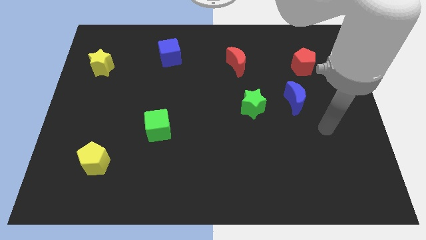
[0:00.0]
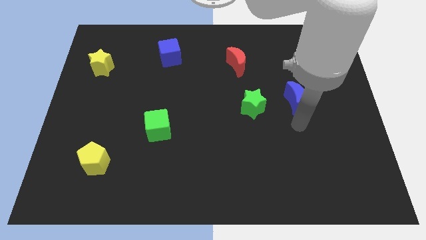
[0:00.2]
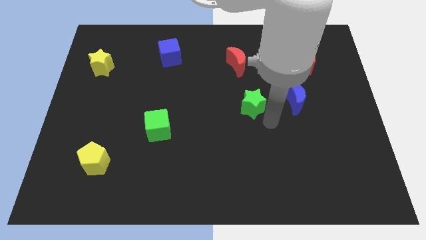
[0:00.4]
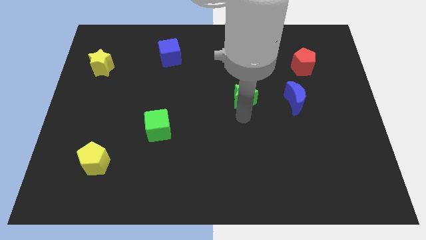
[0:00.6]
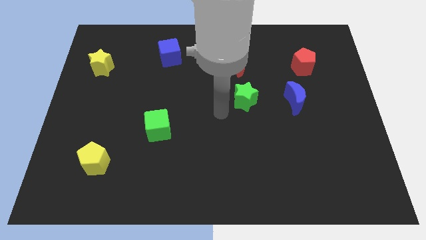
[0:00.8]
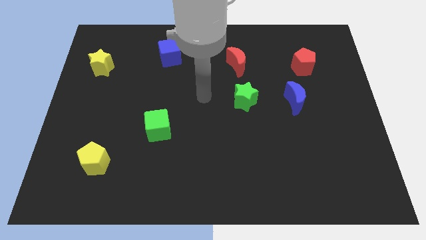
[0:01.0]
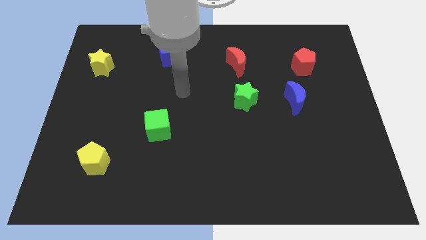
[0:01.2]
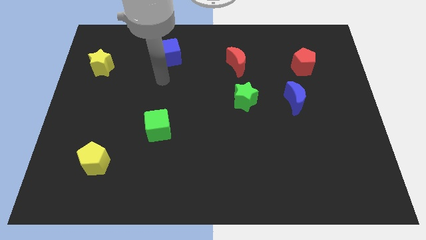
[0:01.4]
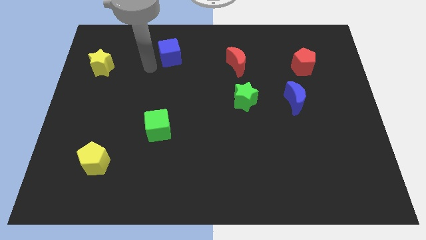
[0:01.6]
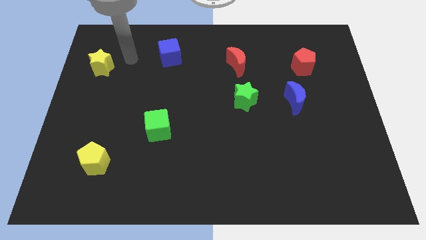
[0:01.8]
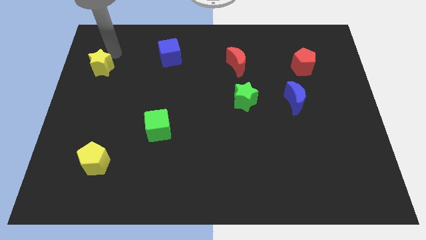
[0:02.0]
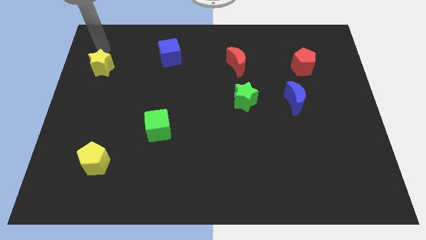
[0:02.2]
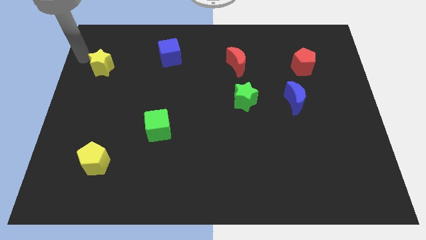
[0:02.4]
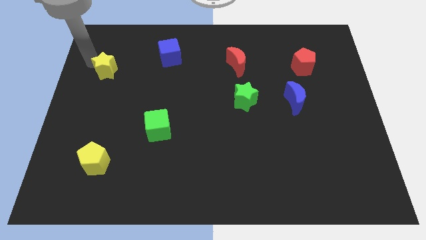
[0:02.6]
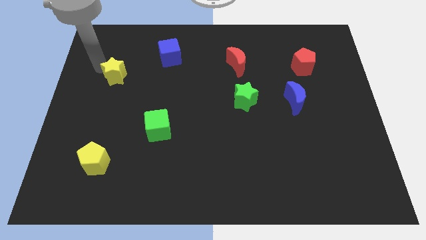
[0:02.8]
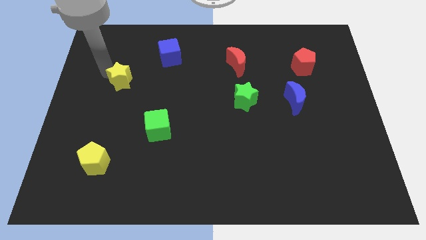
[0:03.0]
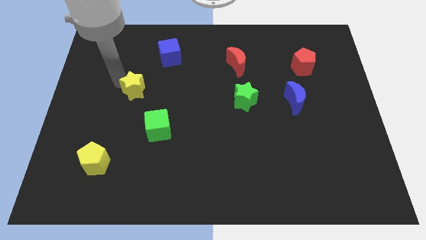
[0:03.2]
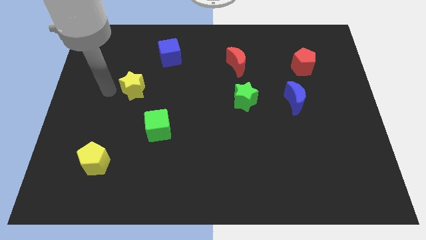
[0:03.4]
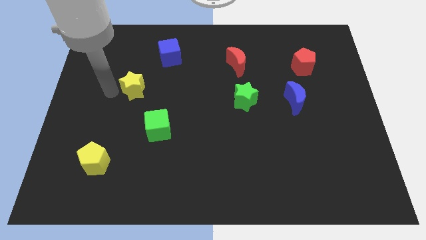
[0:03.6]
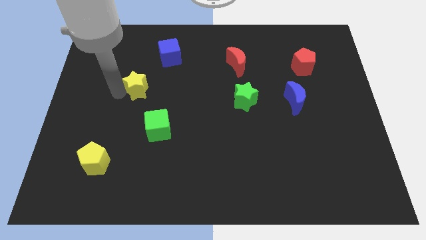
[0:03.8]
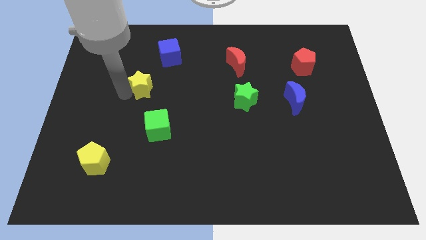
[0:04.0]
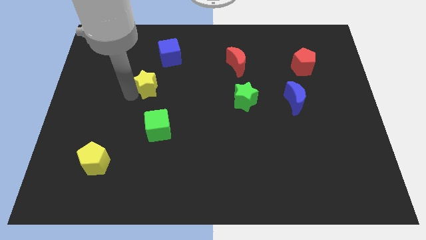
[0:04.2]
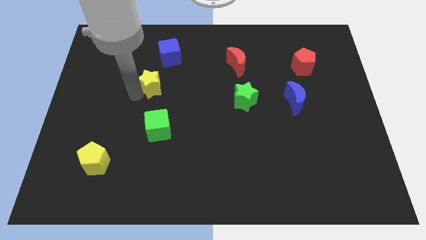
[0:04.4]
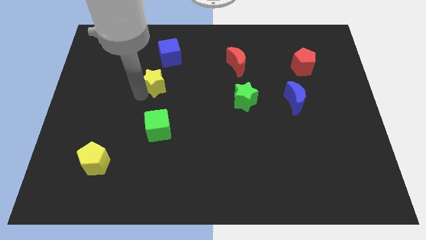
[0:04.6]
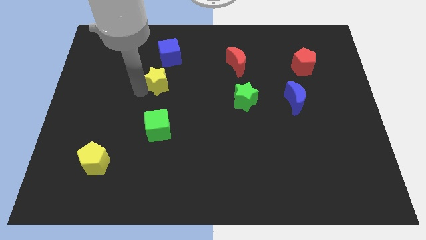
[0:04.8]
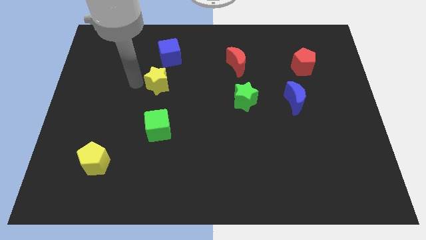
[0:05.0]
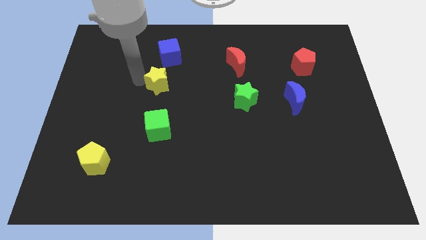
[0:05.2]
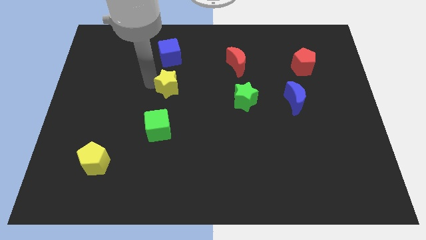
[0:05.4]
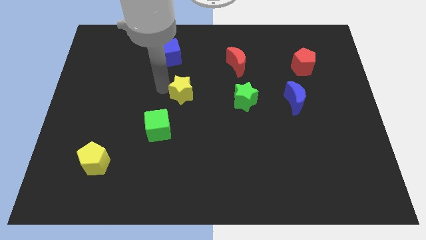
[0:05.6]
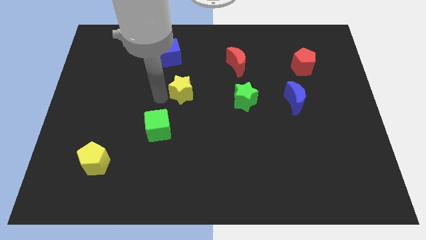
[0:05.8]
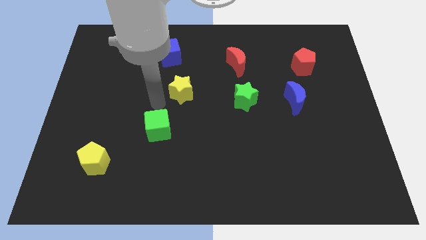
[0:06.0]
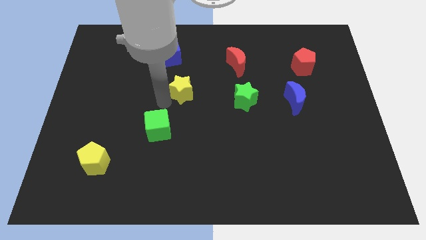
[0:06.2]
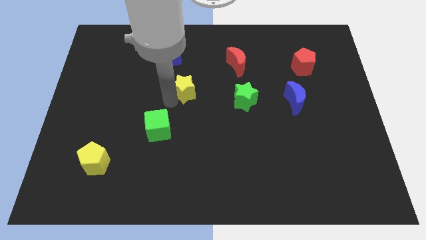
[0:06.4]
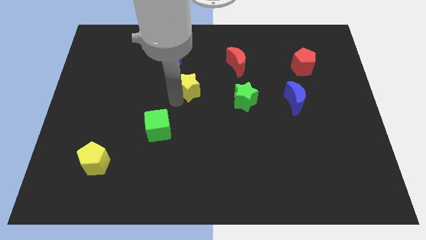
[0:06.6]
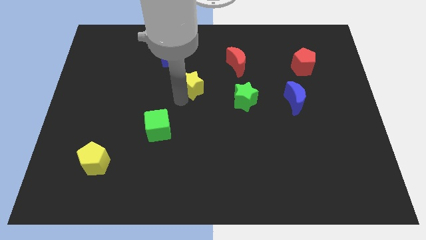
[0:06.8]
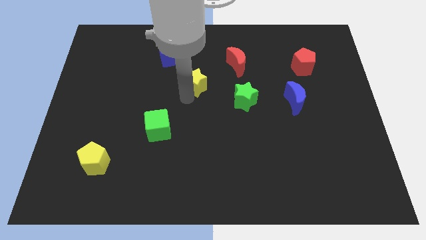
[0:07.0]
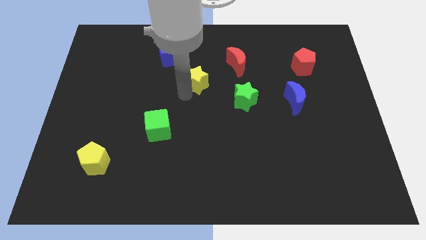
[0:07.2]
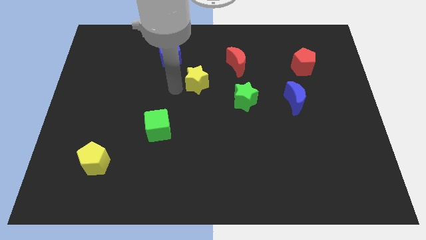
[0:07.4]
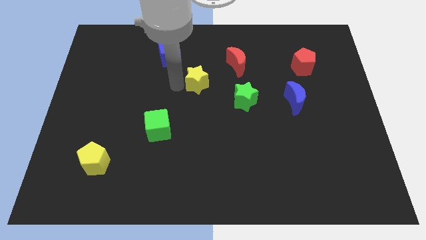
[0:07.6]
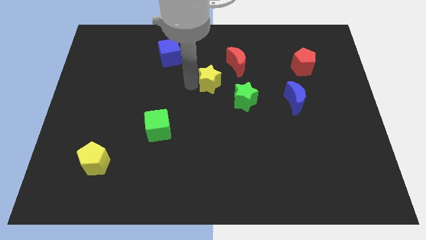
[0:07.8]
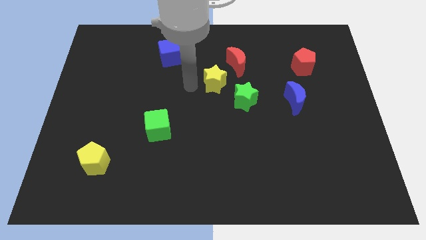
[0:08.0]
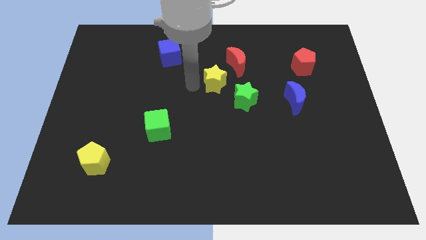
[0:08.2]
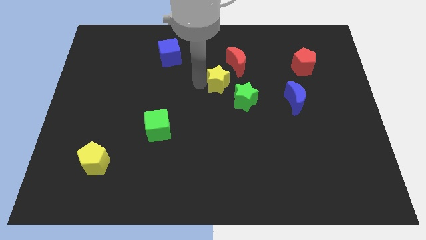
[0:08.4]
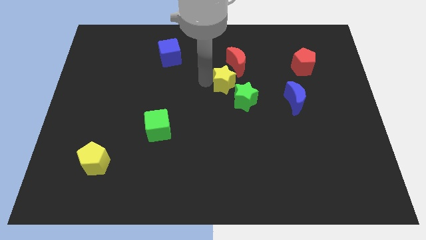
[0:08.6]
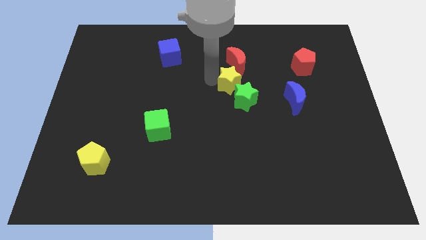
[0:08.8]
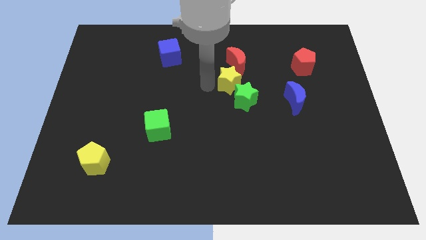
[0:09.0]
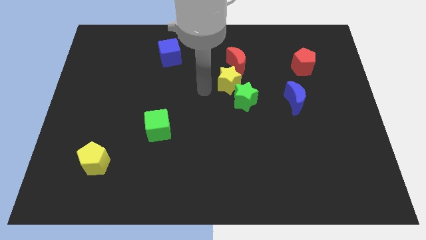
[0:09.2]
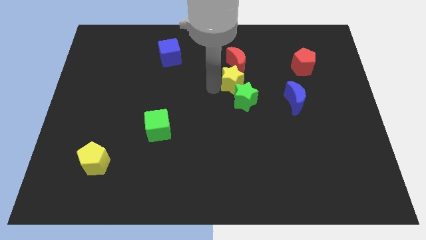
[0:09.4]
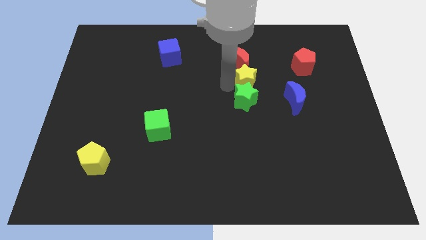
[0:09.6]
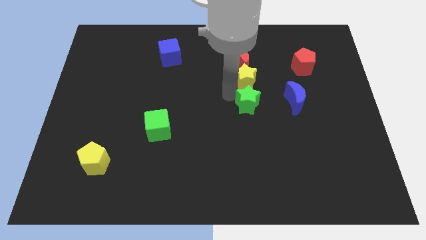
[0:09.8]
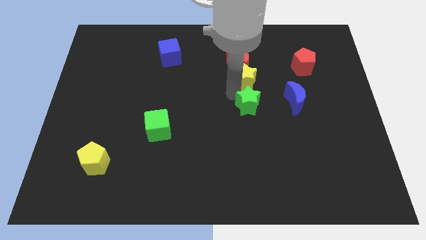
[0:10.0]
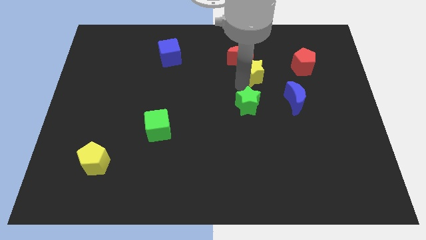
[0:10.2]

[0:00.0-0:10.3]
slide the yellow star to the left of the red pentagon

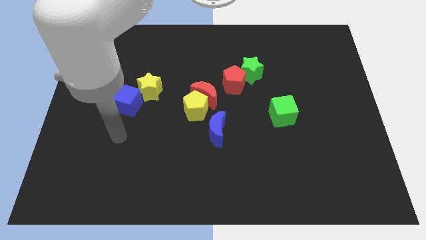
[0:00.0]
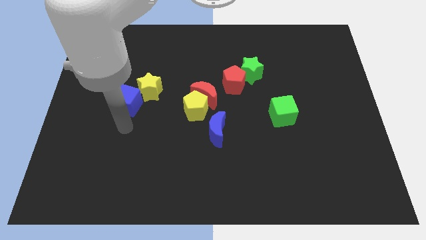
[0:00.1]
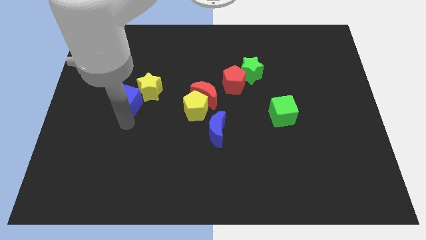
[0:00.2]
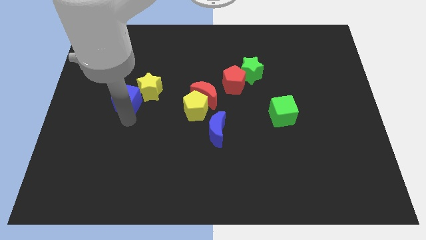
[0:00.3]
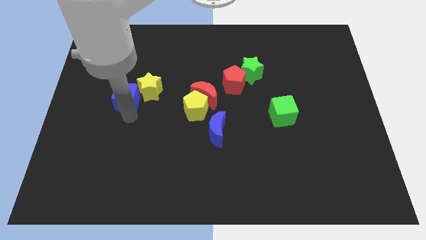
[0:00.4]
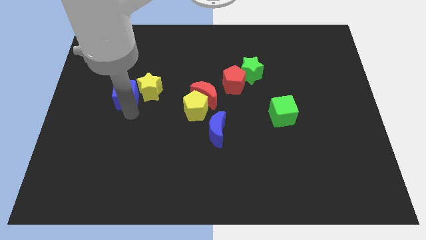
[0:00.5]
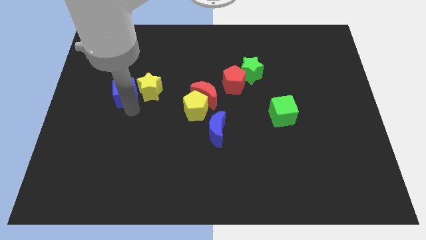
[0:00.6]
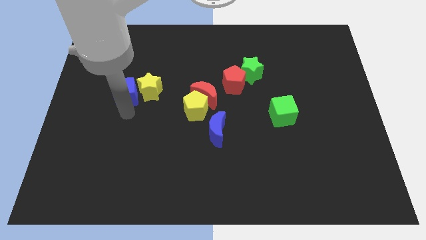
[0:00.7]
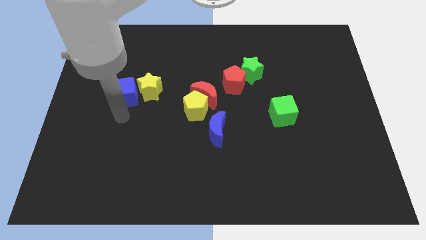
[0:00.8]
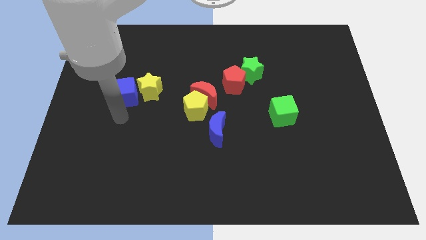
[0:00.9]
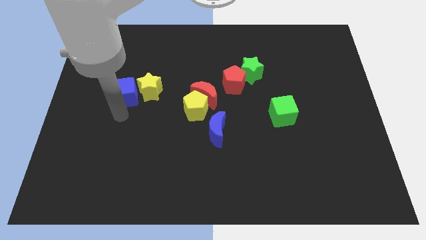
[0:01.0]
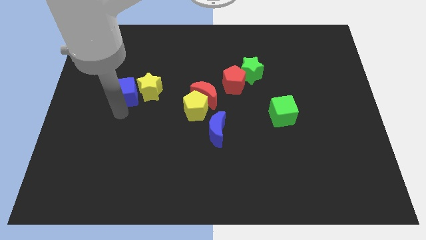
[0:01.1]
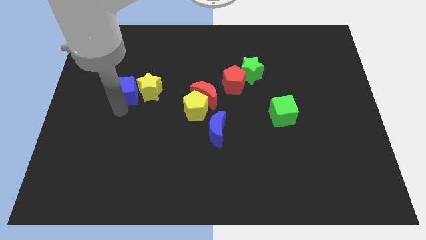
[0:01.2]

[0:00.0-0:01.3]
put the blue cube diagonally up and to the left of the yellow star
